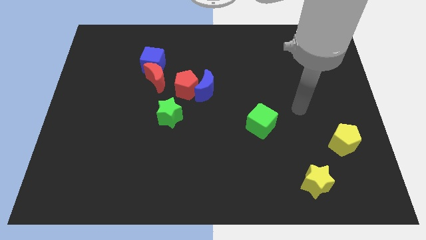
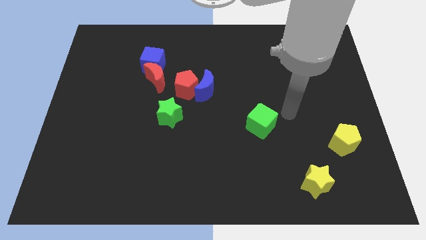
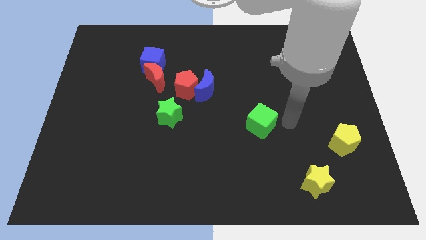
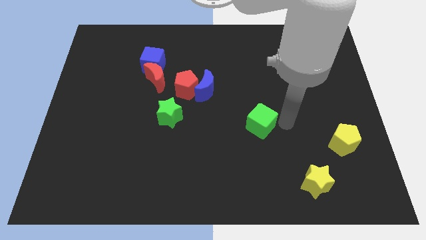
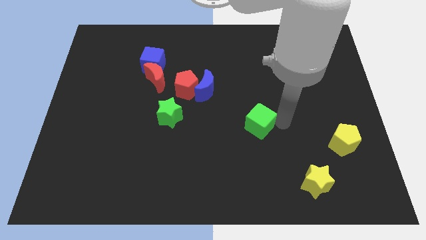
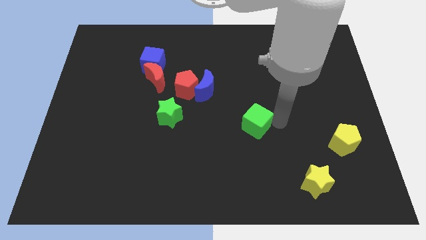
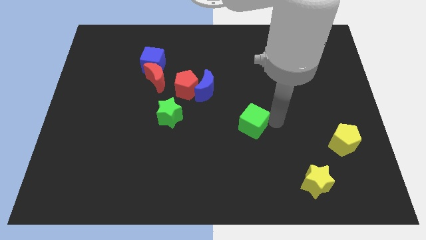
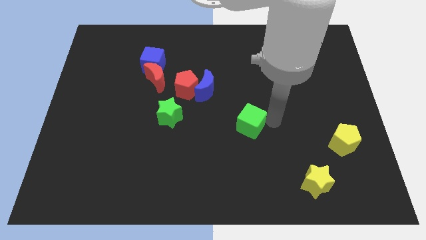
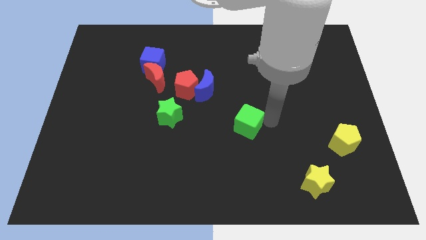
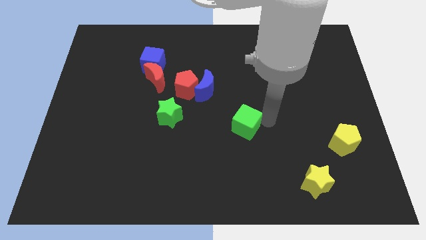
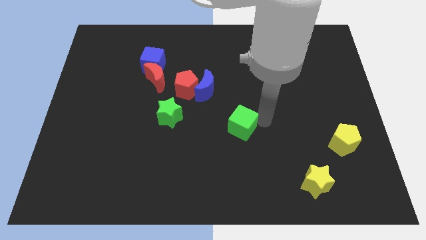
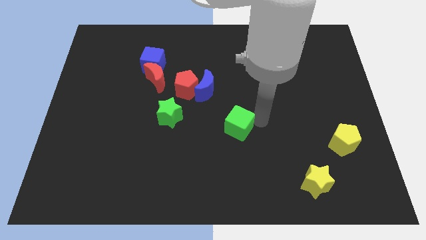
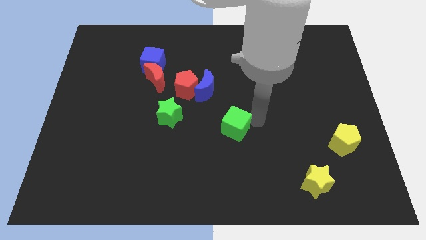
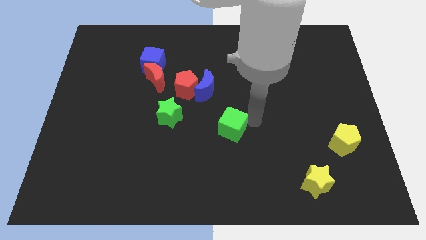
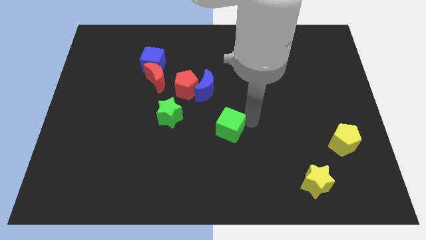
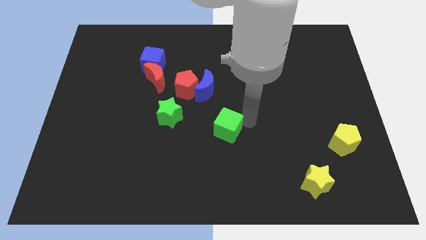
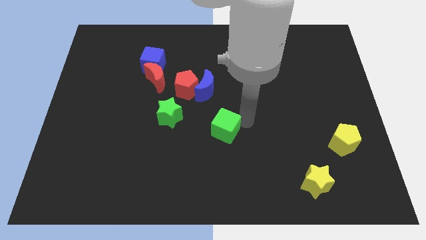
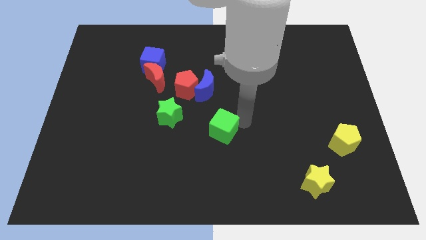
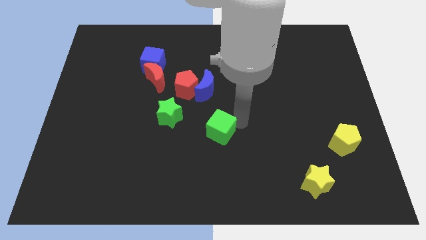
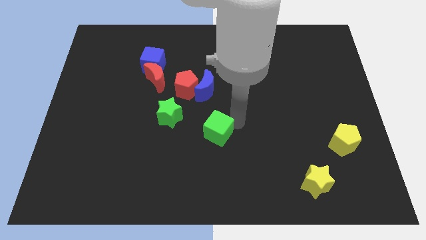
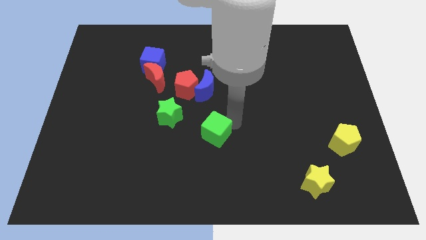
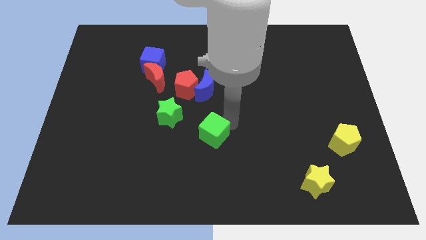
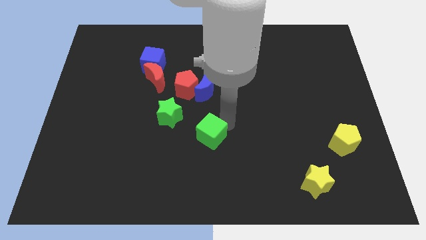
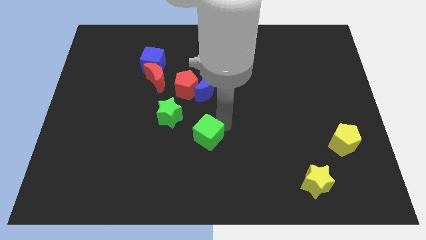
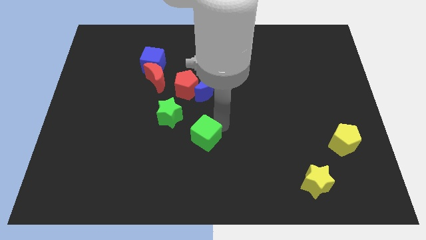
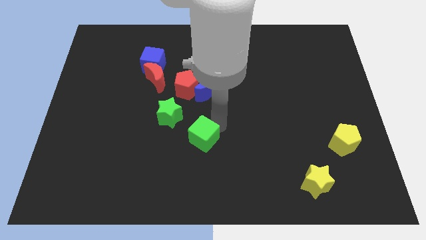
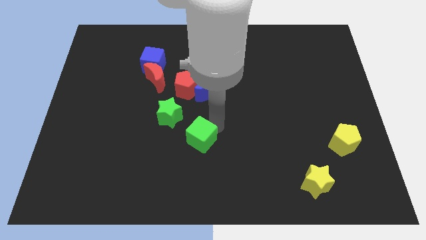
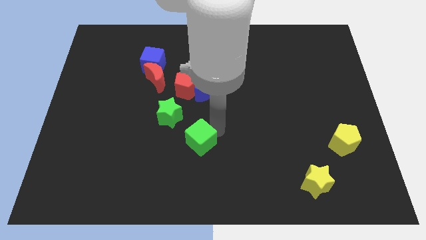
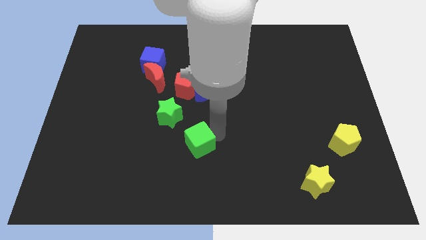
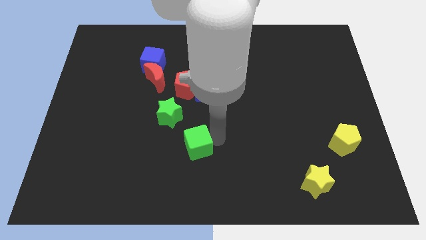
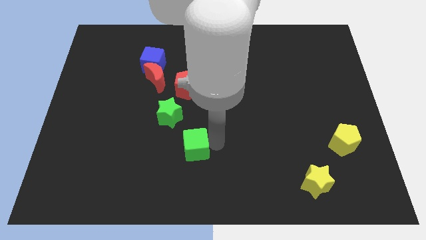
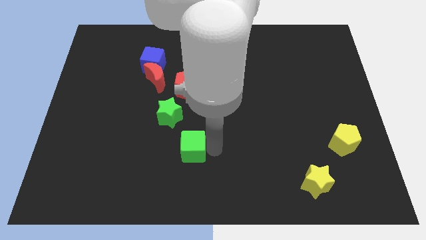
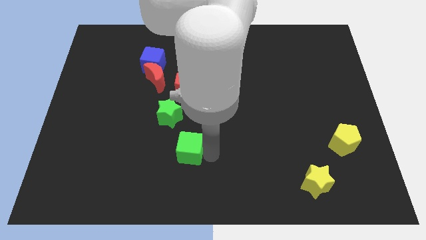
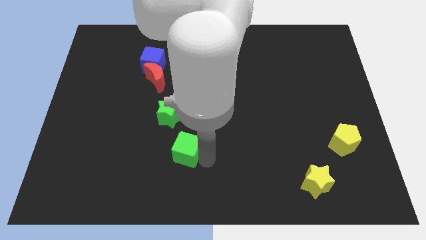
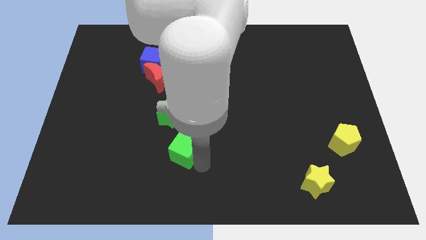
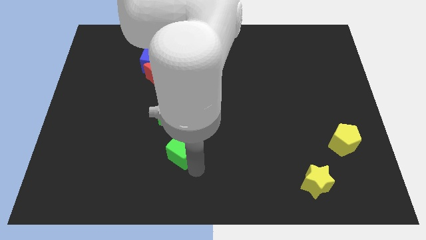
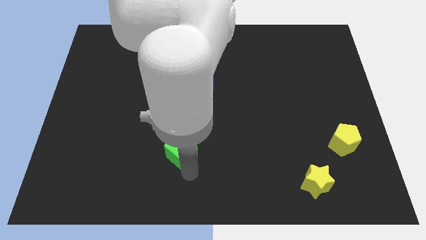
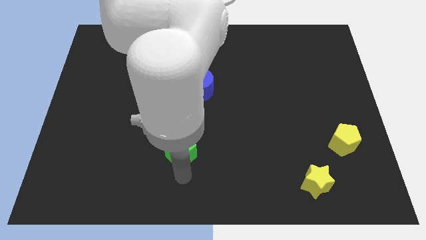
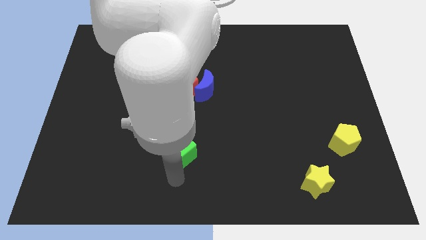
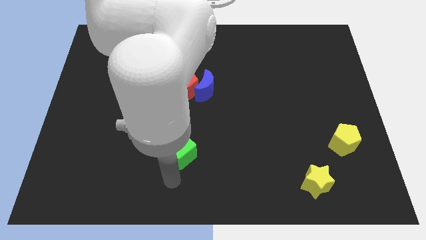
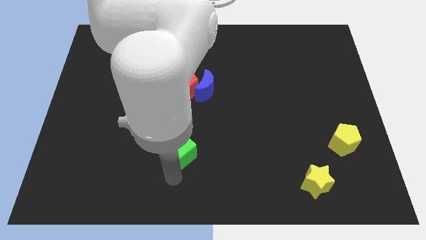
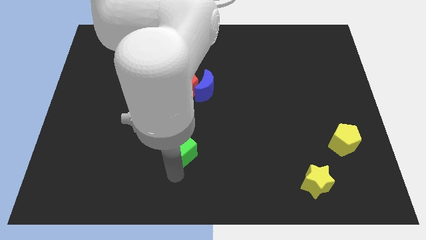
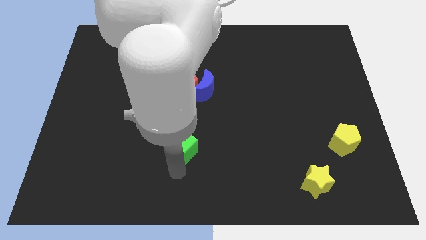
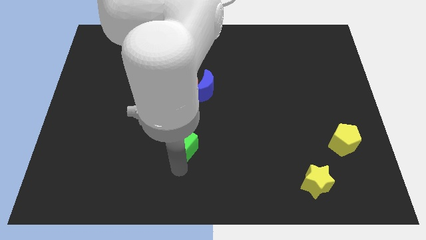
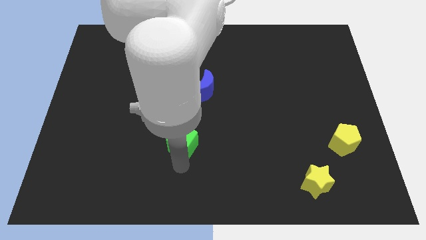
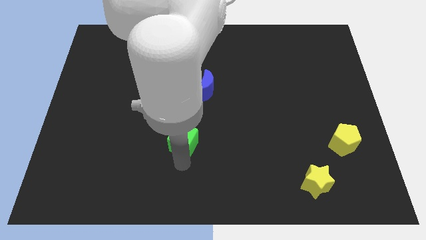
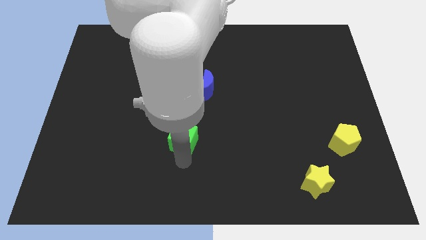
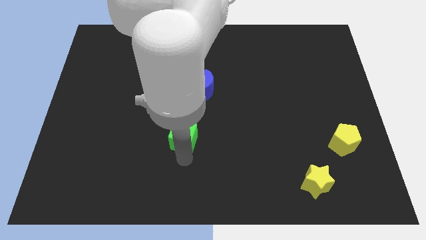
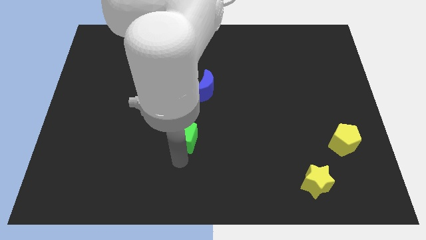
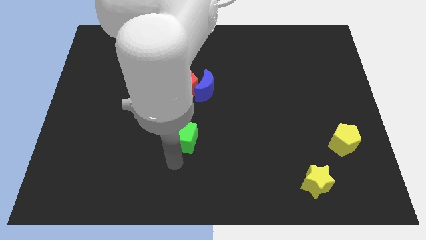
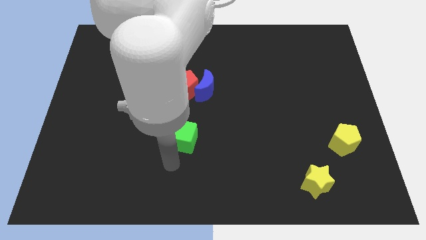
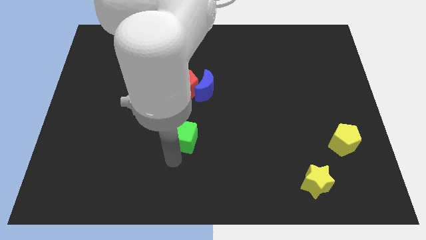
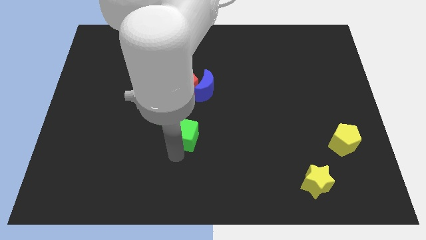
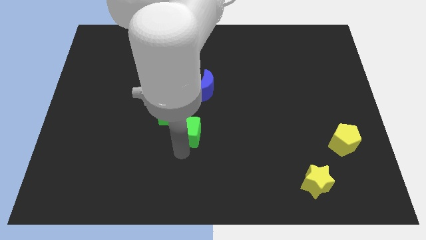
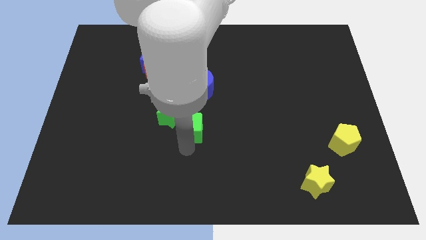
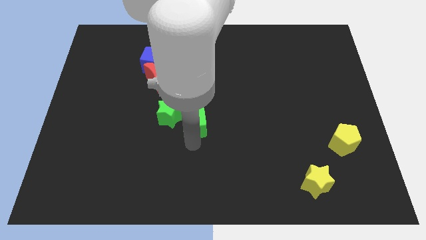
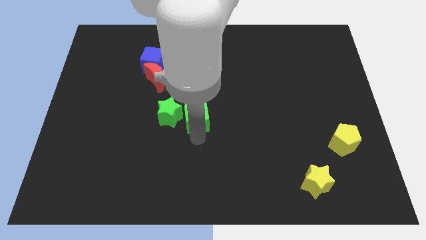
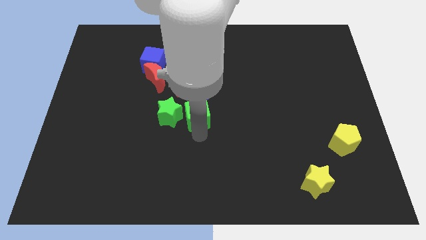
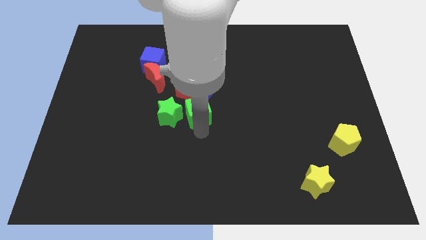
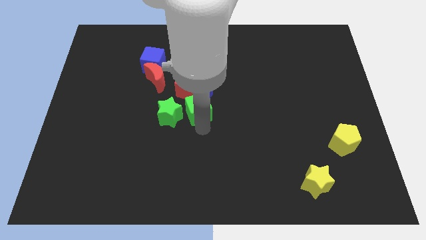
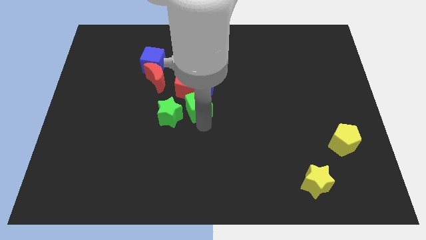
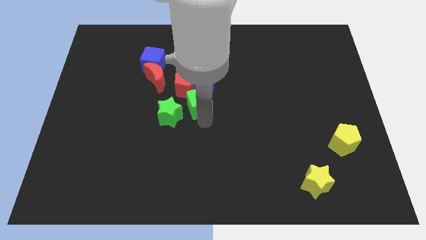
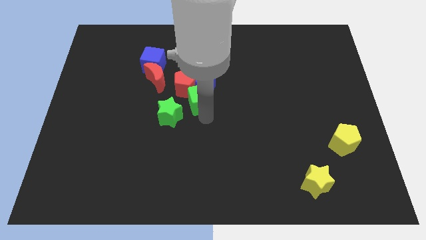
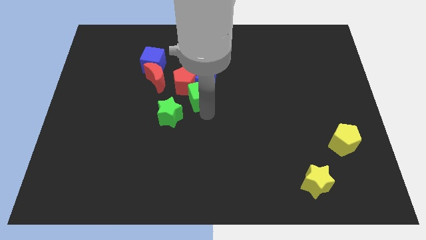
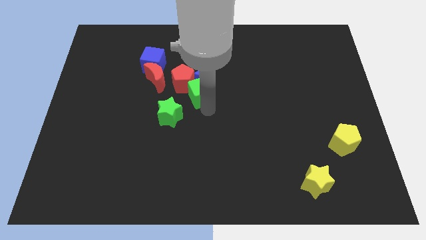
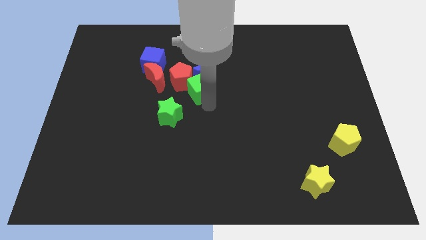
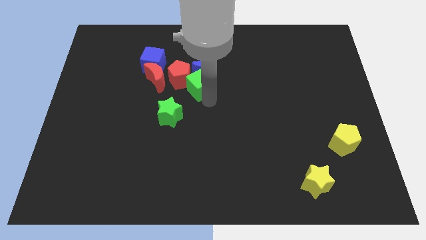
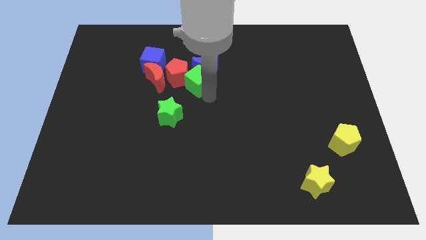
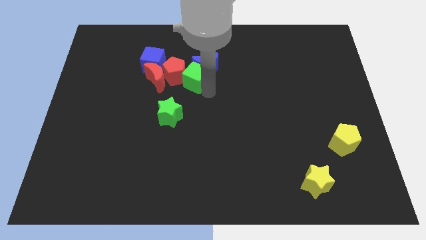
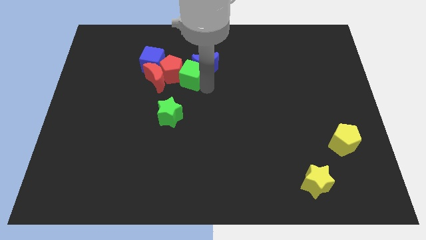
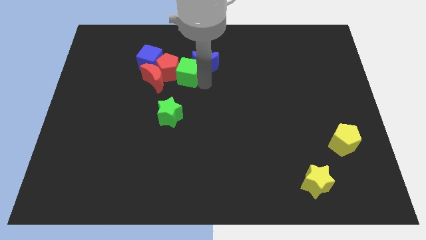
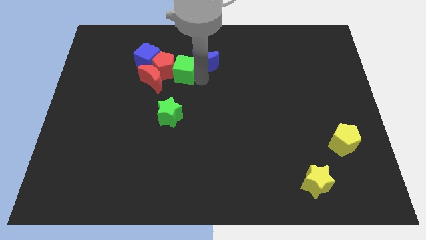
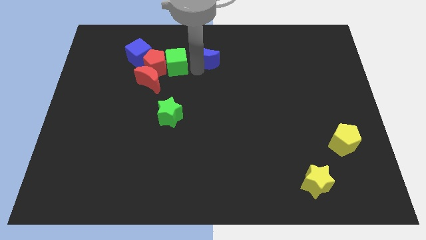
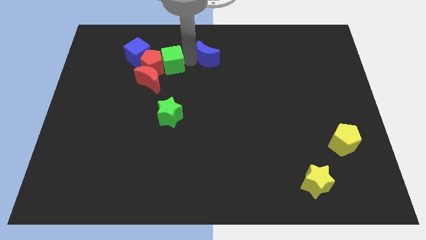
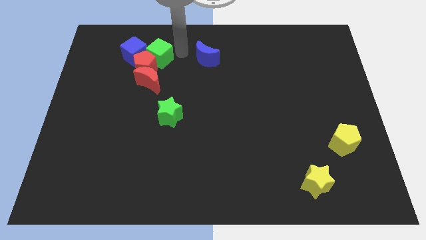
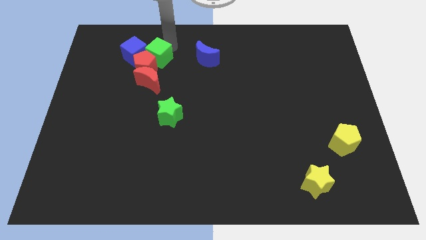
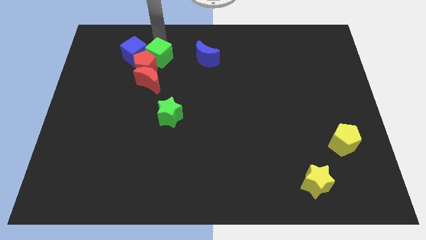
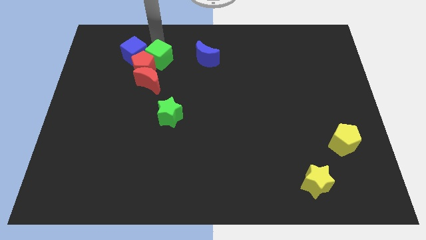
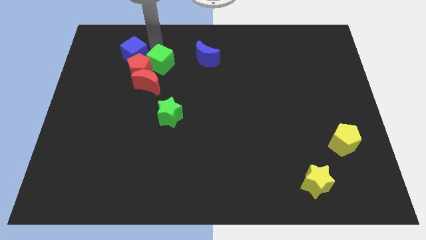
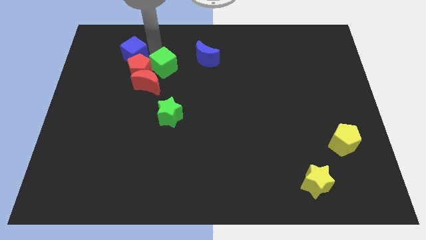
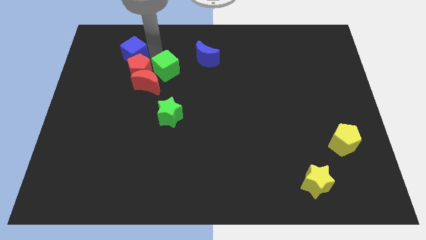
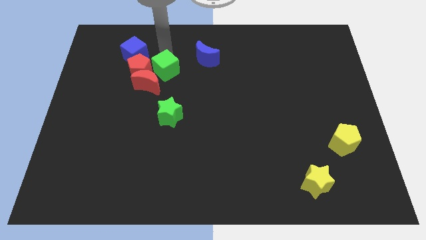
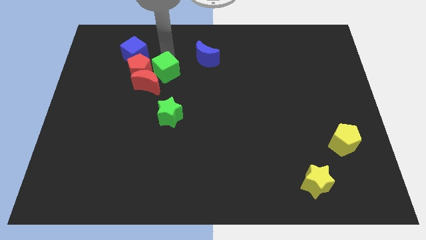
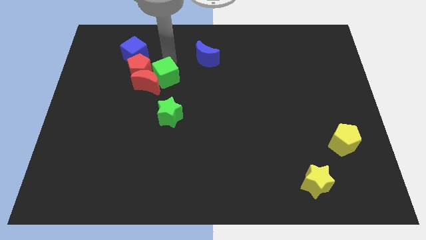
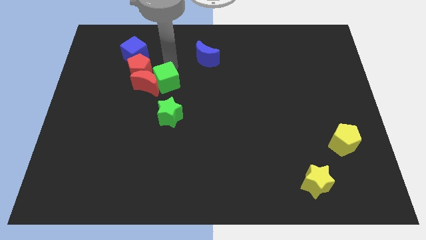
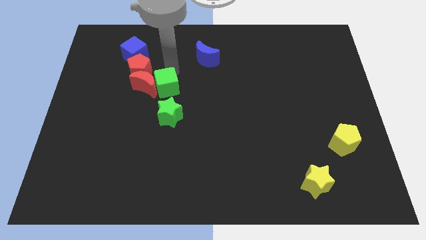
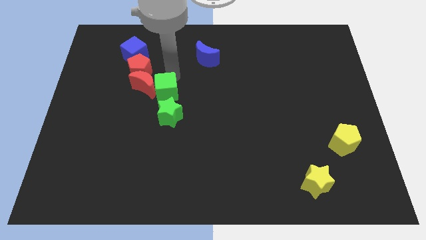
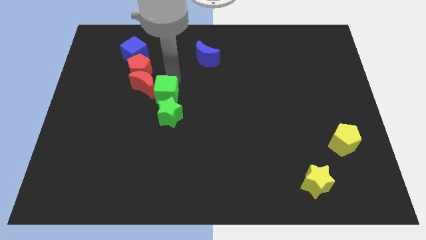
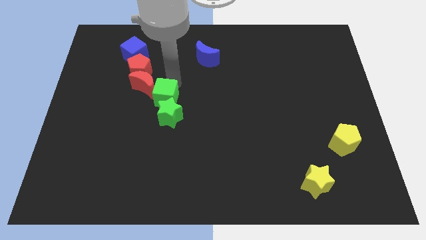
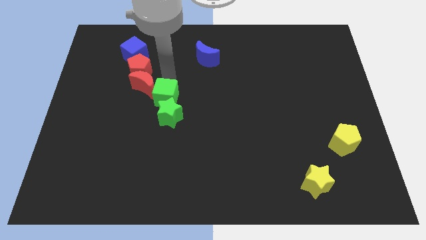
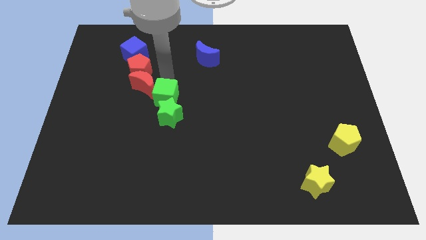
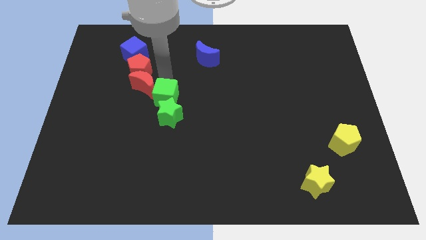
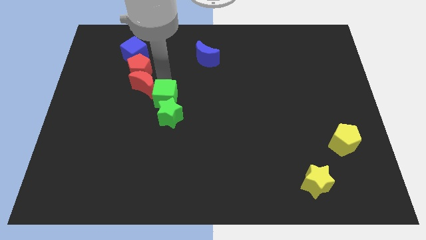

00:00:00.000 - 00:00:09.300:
slide the green cube left
